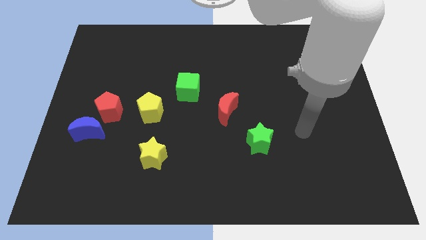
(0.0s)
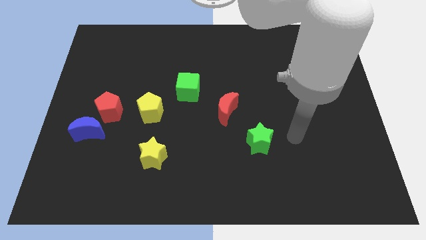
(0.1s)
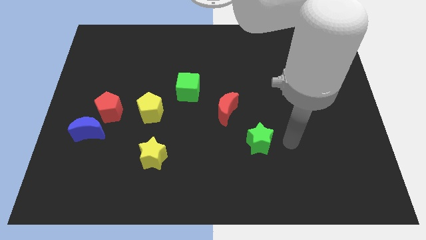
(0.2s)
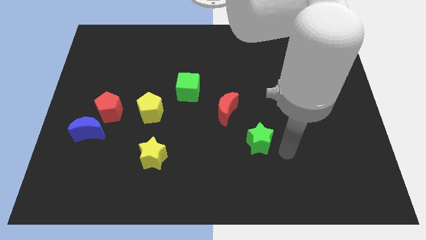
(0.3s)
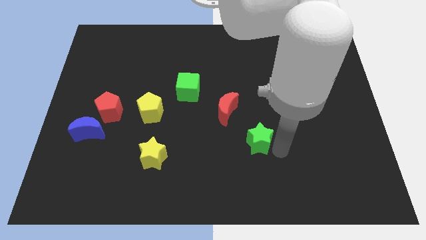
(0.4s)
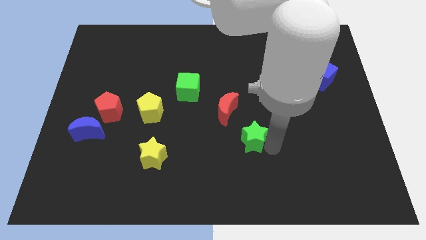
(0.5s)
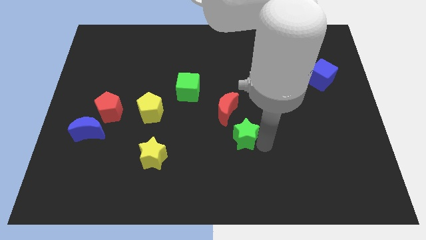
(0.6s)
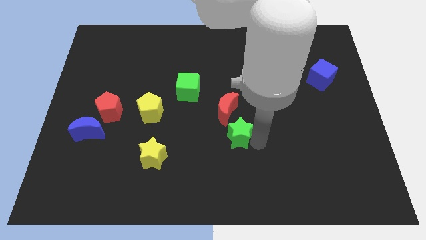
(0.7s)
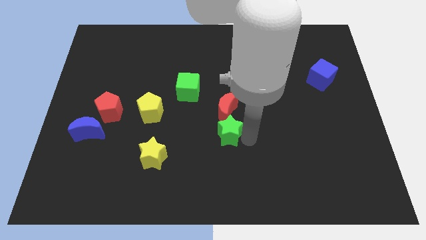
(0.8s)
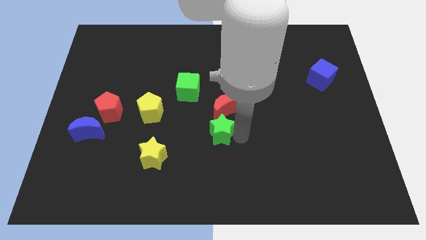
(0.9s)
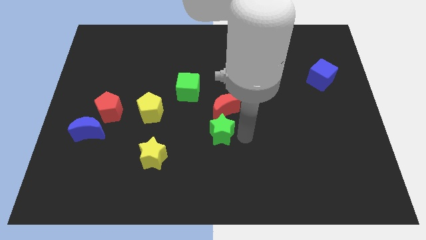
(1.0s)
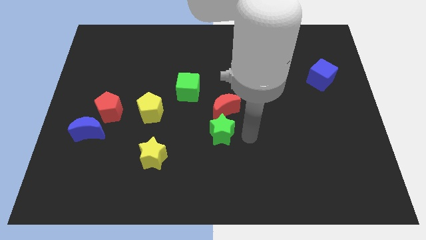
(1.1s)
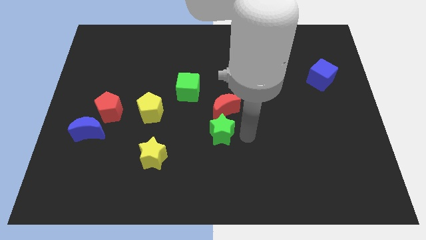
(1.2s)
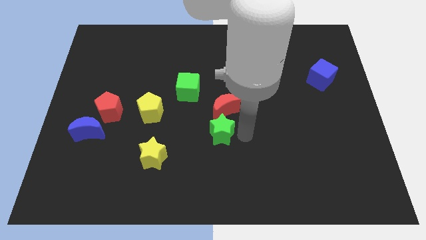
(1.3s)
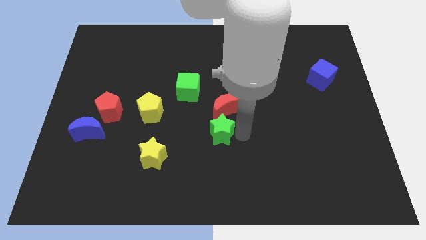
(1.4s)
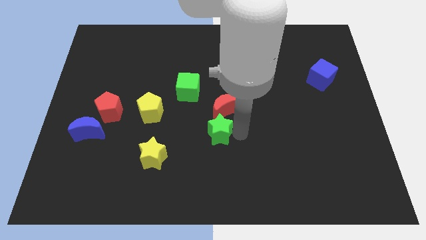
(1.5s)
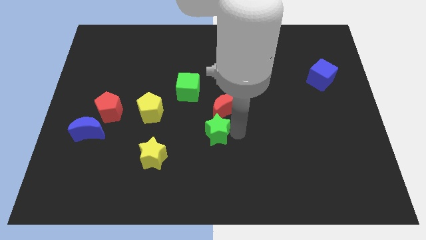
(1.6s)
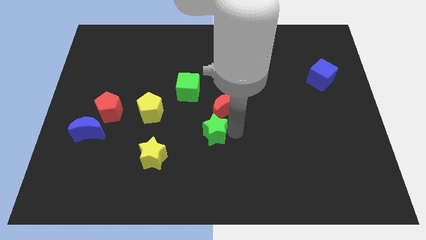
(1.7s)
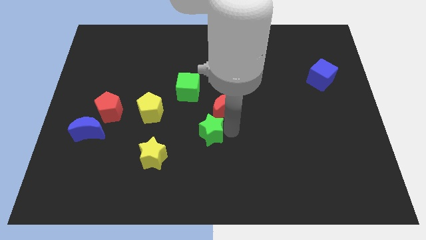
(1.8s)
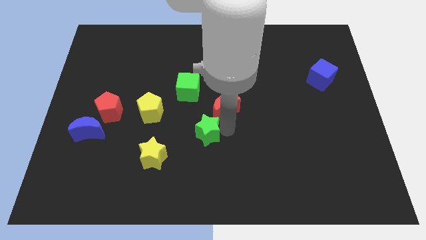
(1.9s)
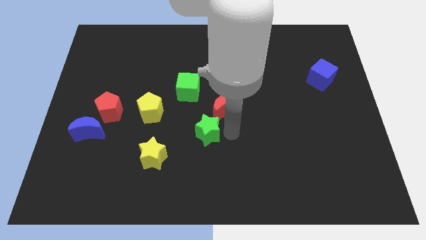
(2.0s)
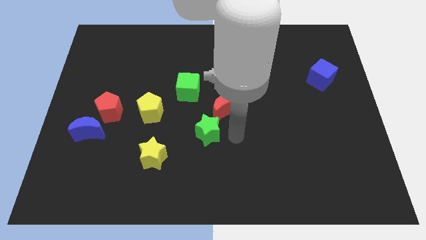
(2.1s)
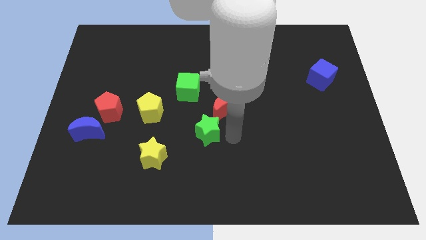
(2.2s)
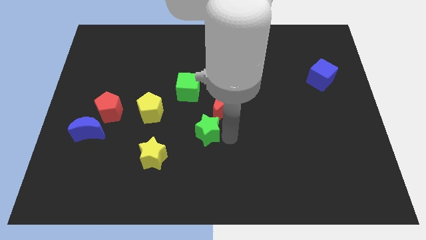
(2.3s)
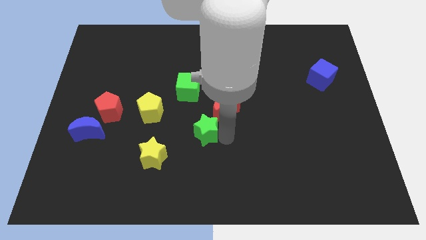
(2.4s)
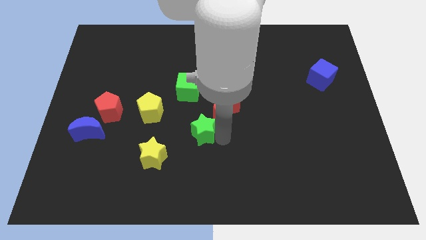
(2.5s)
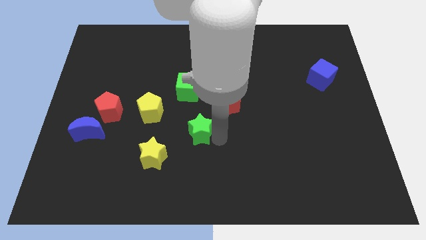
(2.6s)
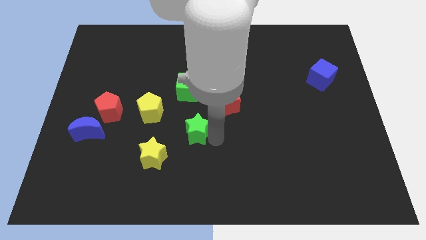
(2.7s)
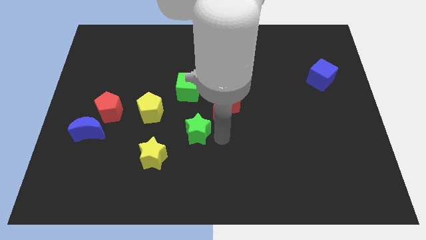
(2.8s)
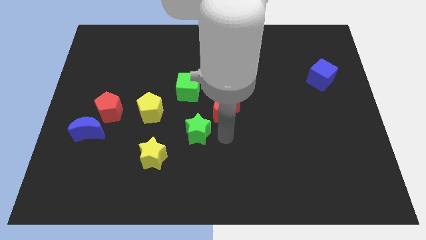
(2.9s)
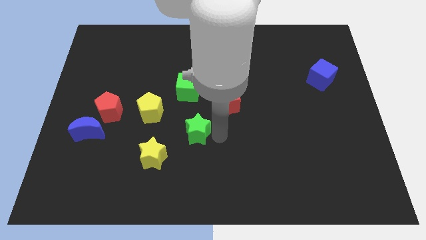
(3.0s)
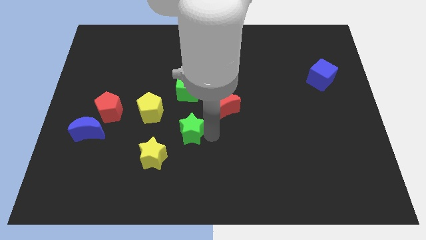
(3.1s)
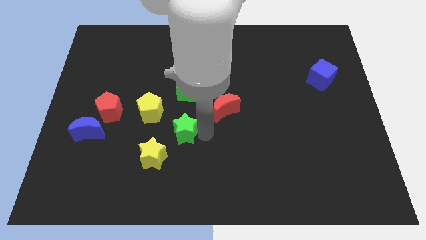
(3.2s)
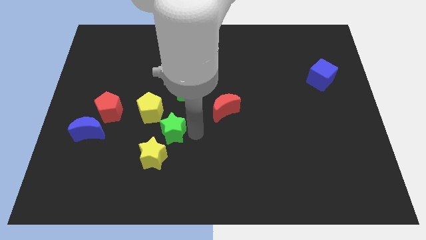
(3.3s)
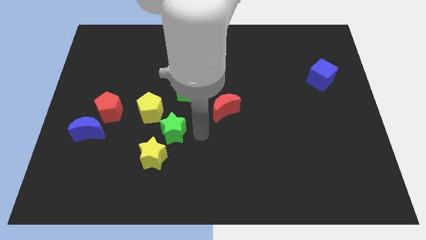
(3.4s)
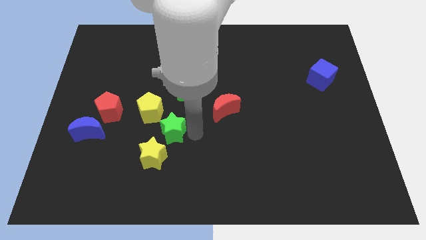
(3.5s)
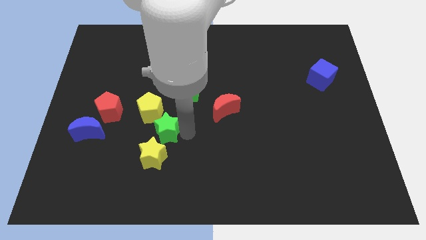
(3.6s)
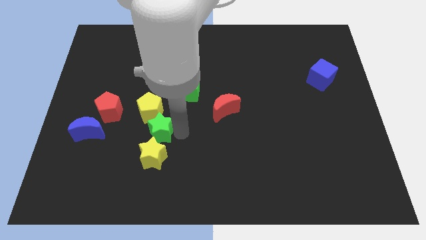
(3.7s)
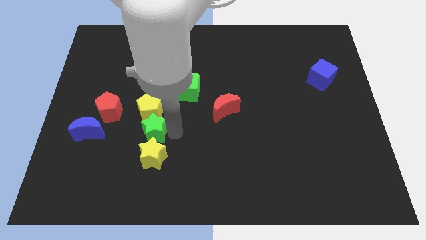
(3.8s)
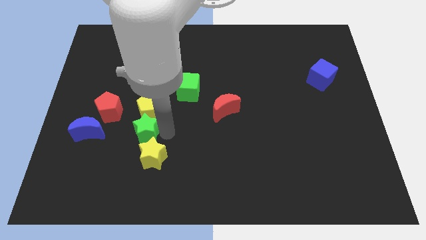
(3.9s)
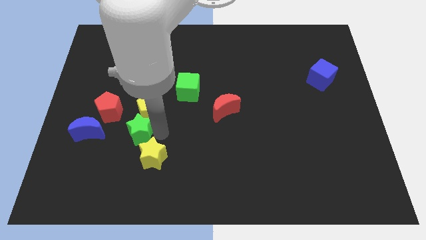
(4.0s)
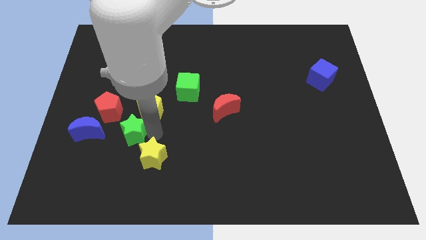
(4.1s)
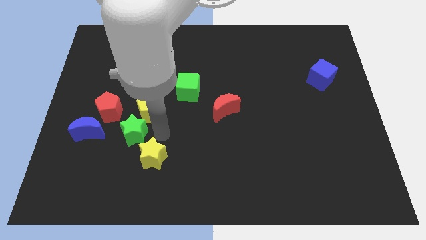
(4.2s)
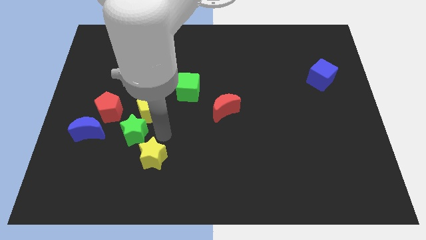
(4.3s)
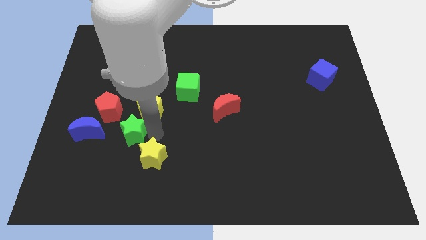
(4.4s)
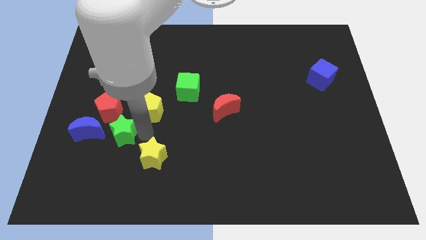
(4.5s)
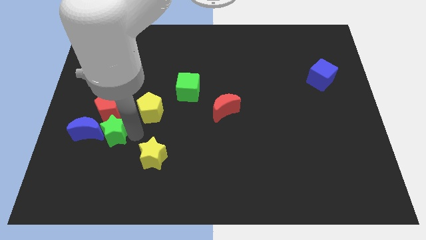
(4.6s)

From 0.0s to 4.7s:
put the green star towards the blue moon

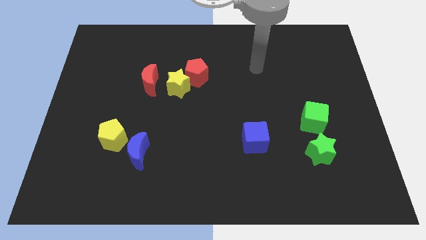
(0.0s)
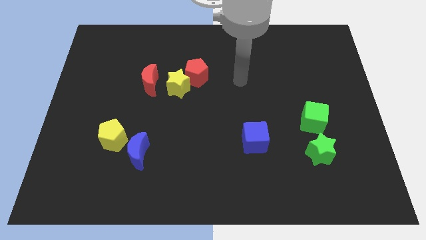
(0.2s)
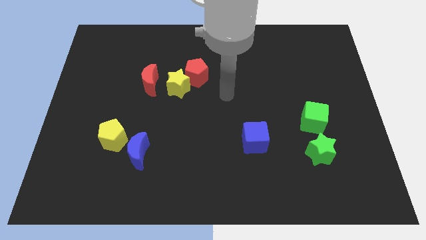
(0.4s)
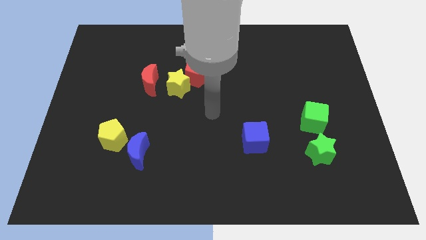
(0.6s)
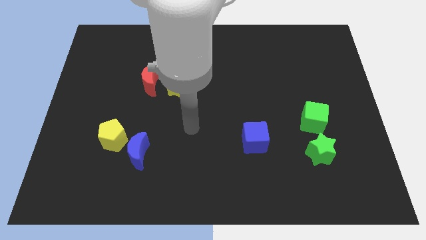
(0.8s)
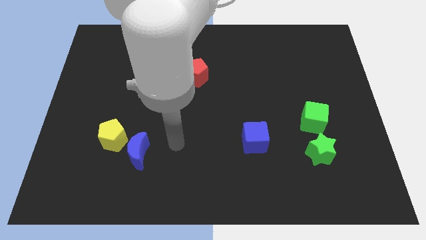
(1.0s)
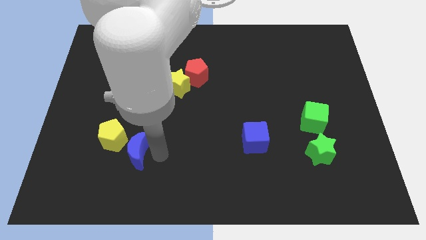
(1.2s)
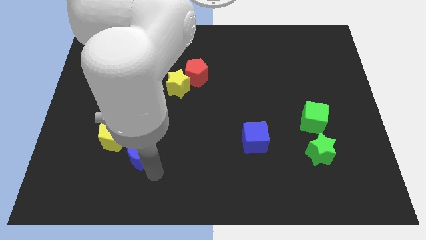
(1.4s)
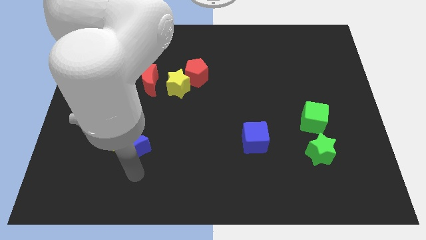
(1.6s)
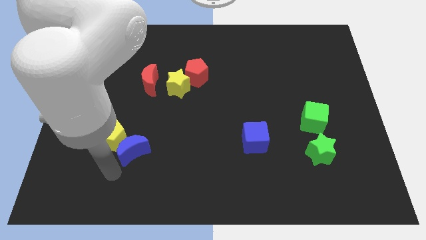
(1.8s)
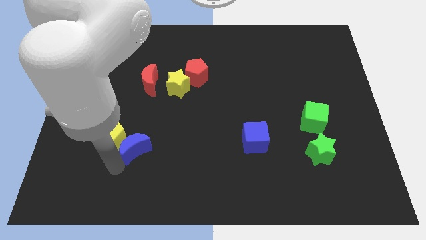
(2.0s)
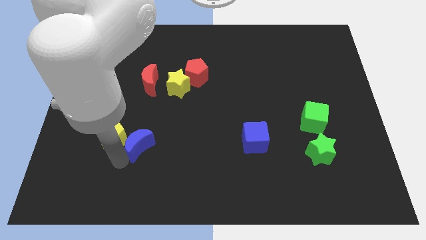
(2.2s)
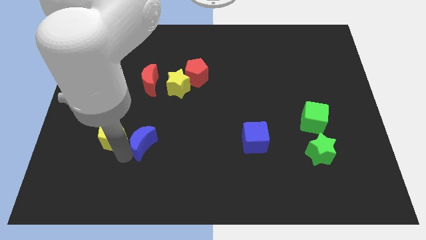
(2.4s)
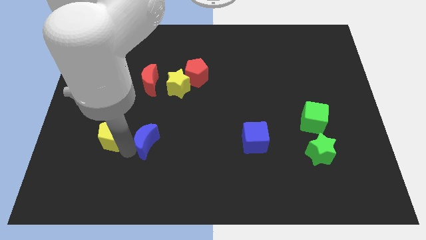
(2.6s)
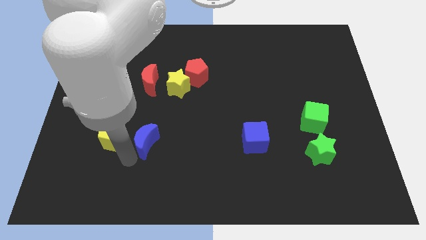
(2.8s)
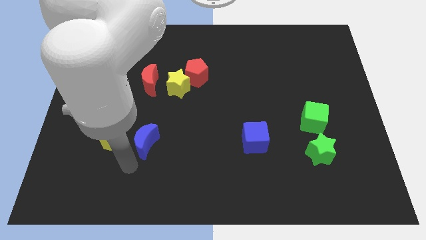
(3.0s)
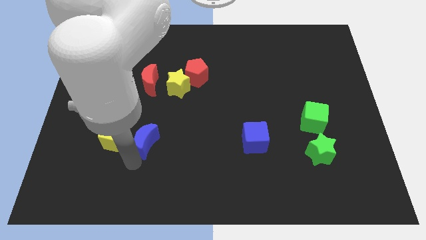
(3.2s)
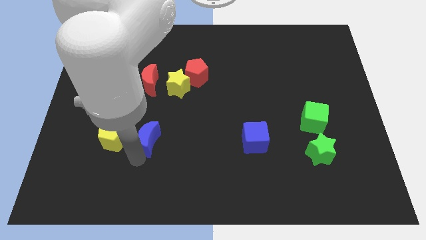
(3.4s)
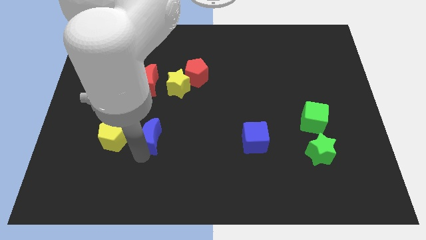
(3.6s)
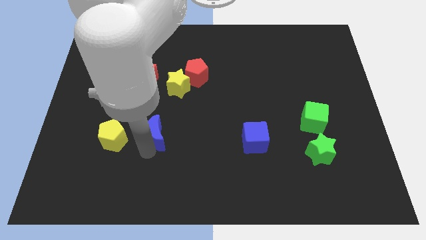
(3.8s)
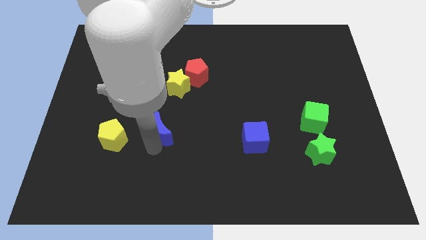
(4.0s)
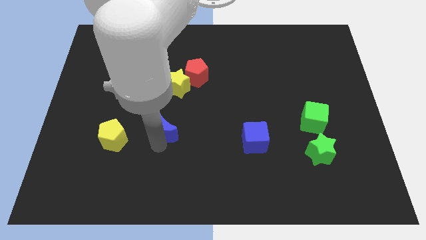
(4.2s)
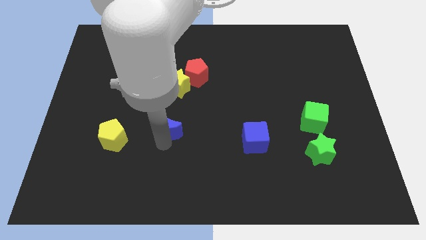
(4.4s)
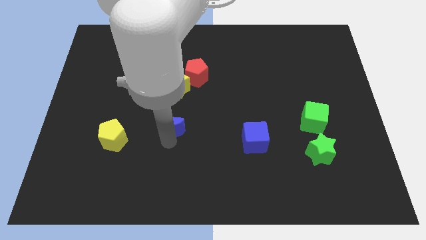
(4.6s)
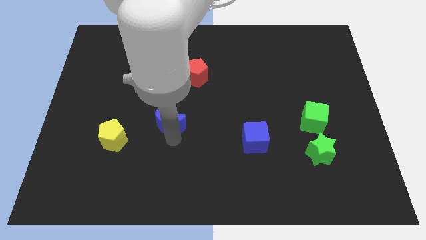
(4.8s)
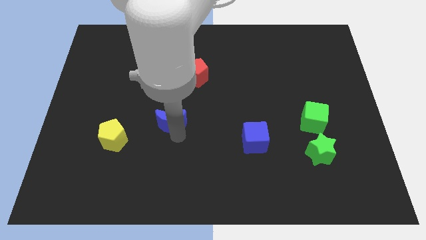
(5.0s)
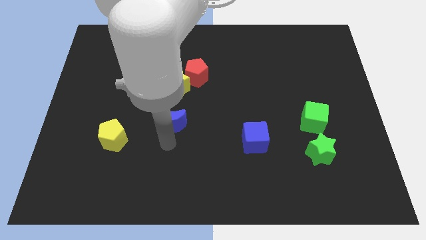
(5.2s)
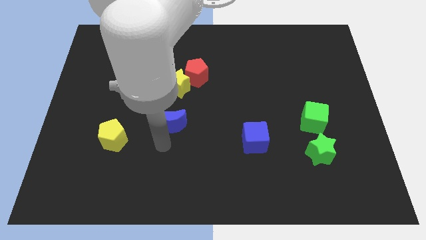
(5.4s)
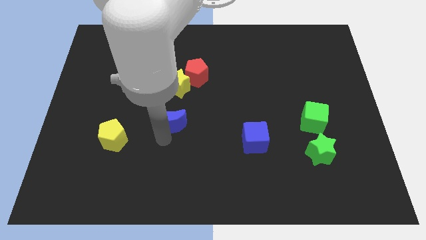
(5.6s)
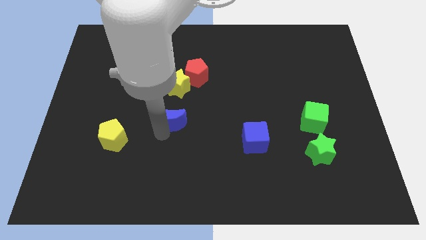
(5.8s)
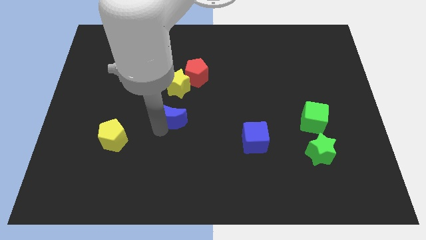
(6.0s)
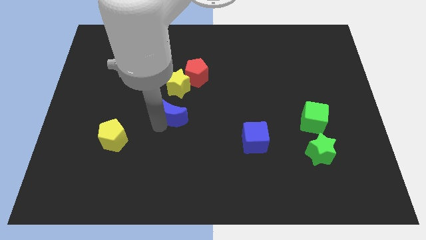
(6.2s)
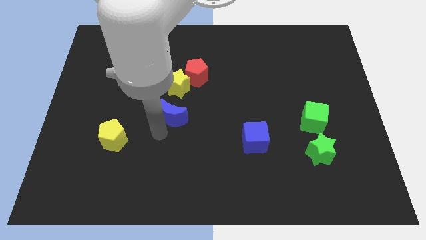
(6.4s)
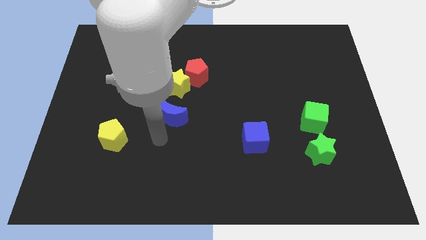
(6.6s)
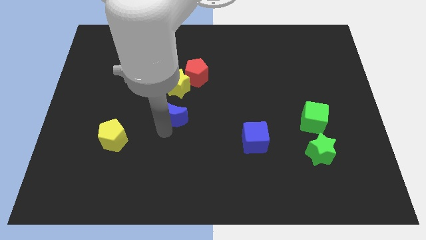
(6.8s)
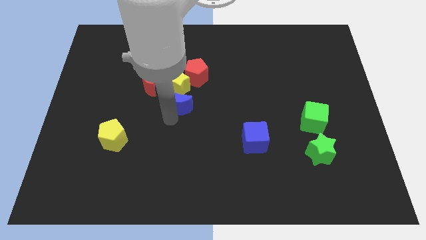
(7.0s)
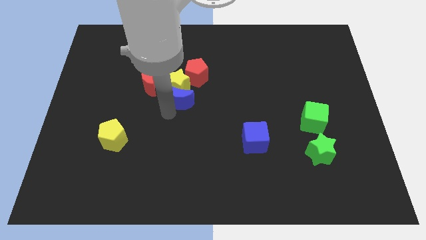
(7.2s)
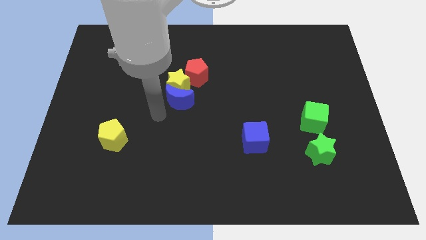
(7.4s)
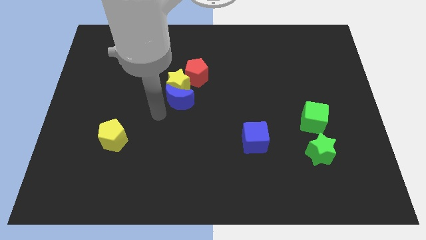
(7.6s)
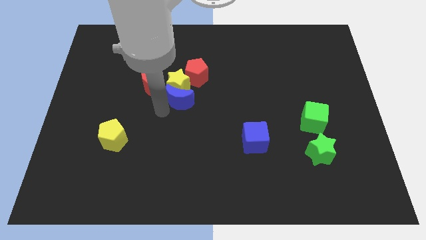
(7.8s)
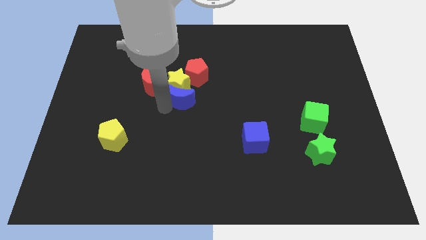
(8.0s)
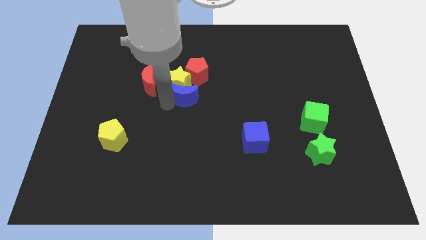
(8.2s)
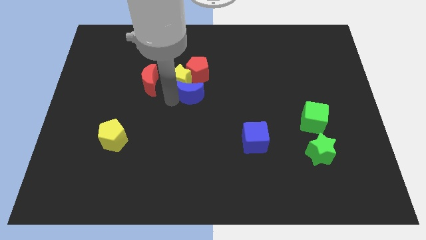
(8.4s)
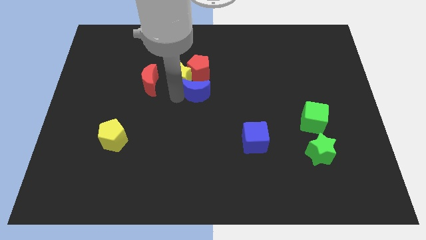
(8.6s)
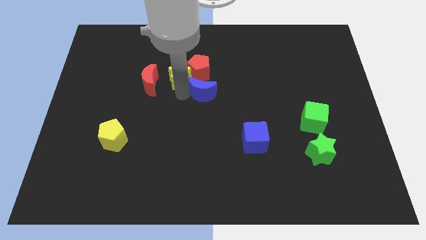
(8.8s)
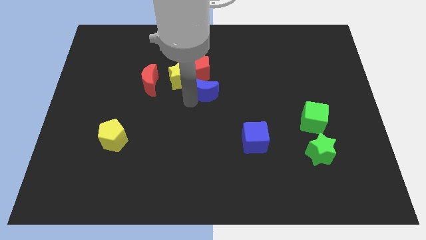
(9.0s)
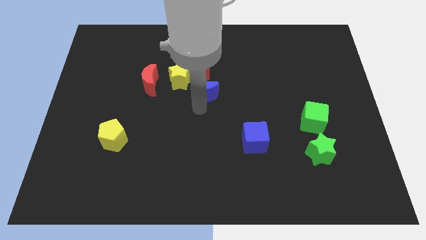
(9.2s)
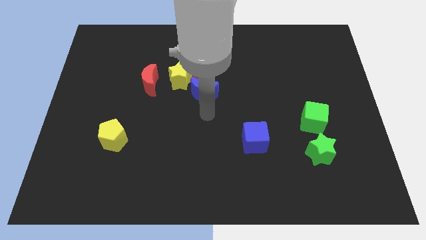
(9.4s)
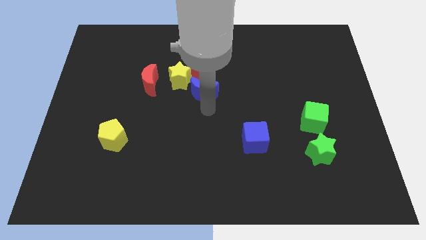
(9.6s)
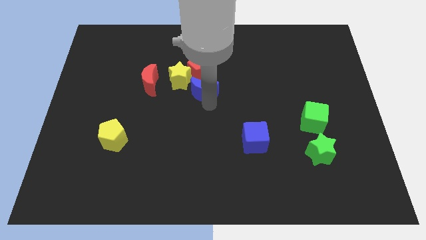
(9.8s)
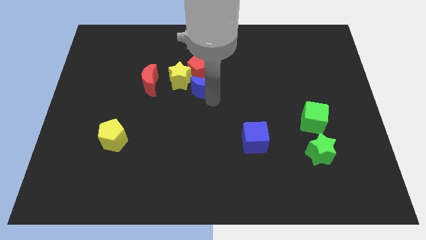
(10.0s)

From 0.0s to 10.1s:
push the blue moon close to the red pentagon
